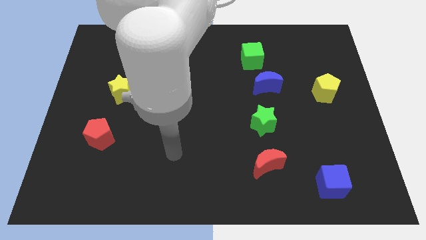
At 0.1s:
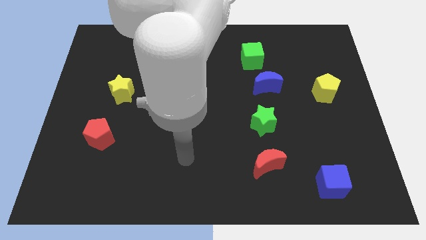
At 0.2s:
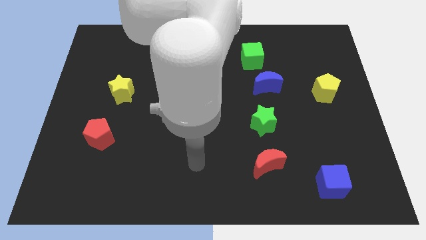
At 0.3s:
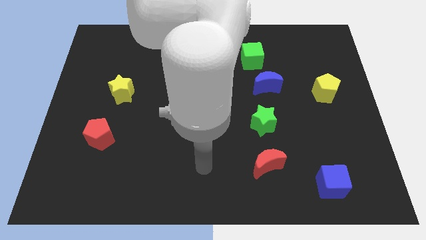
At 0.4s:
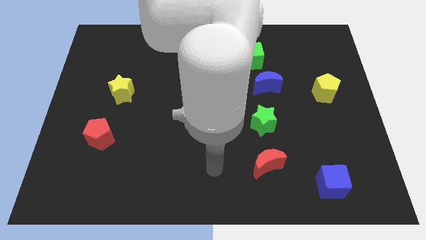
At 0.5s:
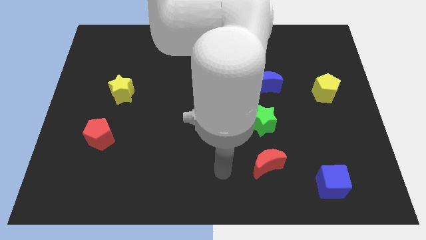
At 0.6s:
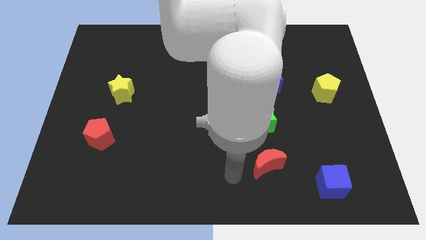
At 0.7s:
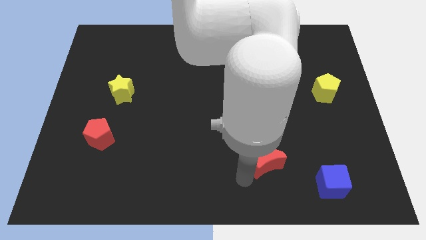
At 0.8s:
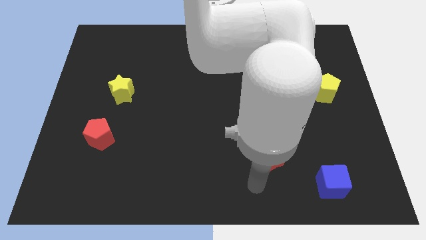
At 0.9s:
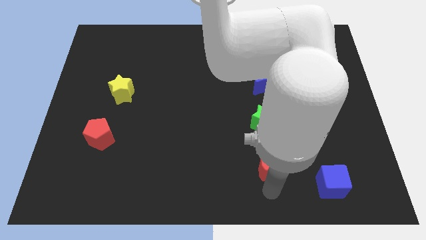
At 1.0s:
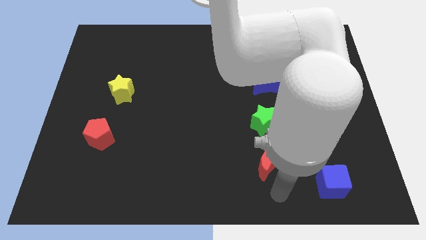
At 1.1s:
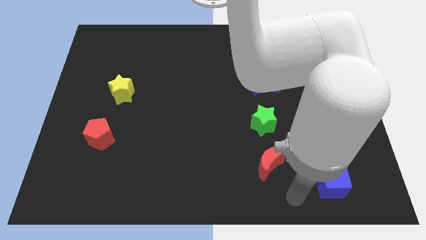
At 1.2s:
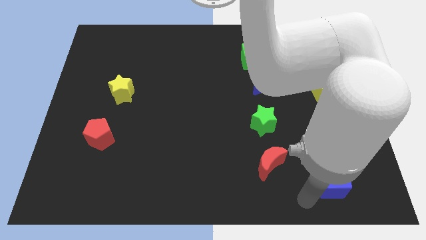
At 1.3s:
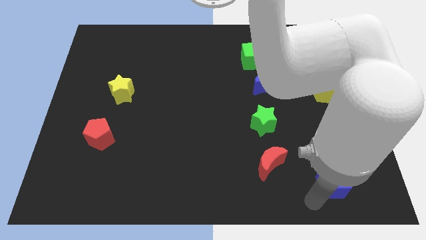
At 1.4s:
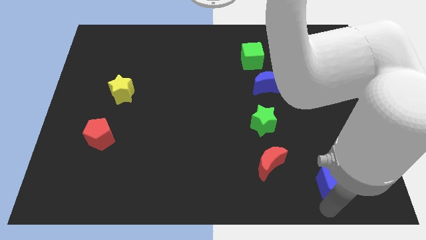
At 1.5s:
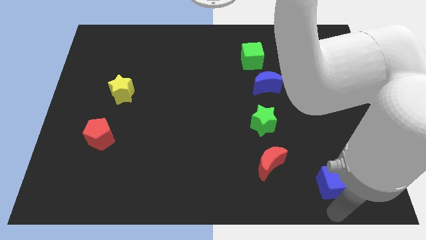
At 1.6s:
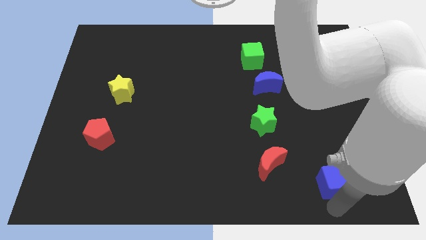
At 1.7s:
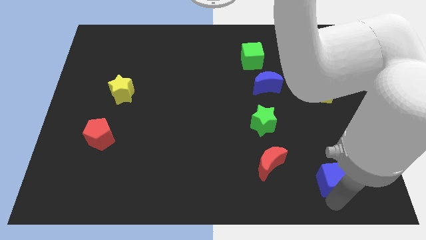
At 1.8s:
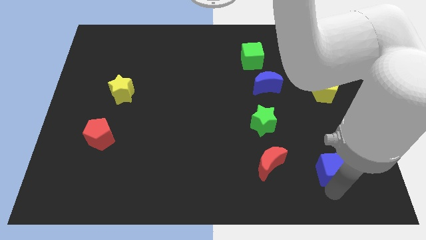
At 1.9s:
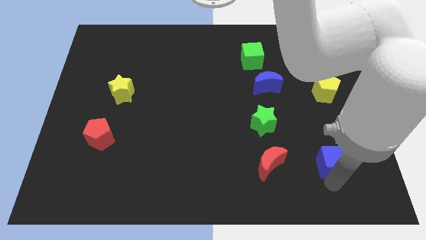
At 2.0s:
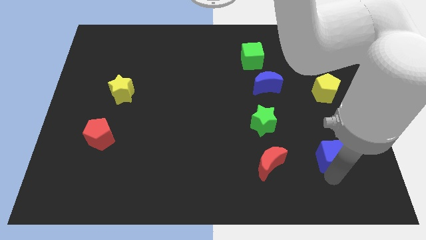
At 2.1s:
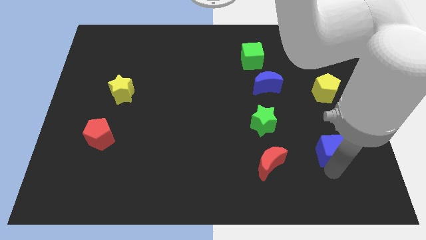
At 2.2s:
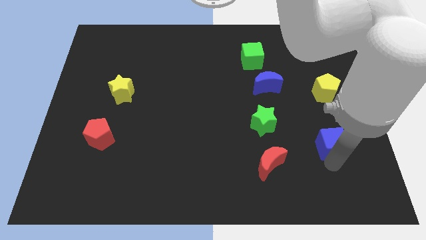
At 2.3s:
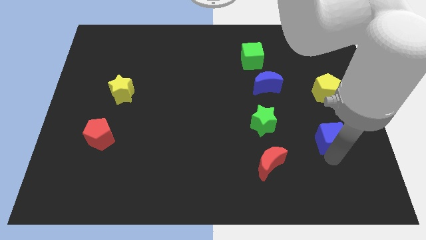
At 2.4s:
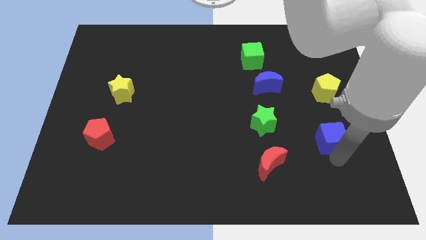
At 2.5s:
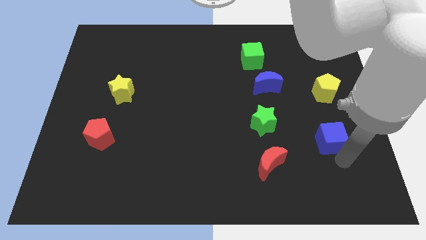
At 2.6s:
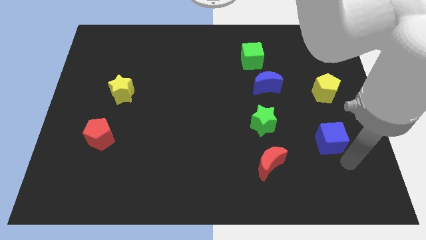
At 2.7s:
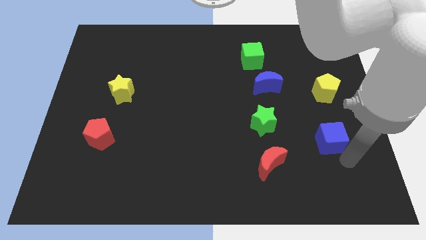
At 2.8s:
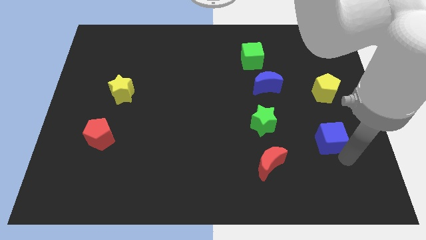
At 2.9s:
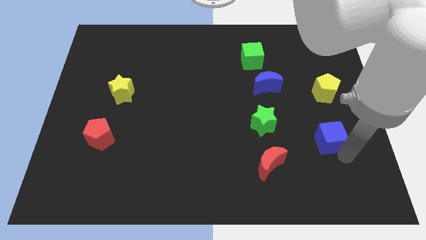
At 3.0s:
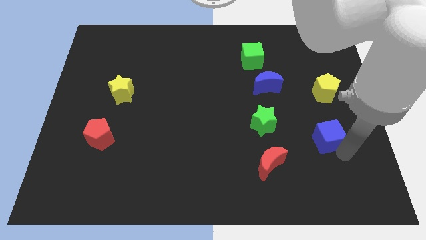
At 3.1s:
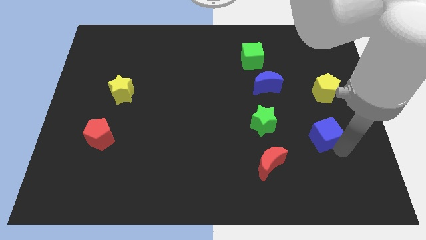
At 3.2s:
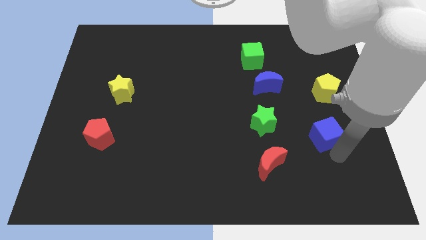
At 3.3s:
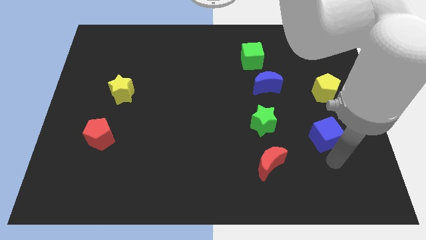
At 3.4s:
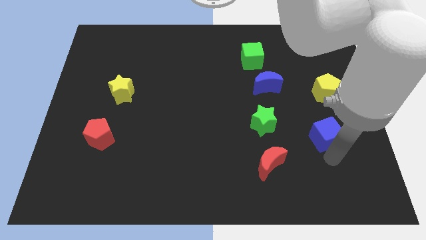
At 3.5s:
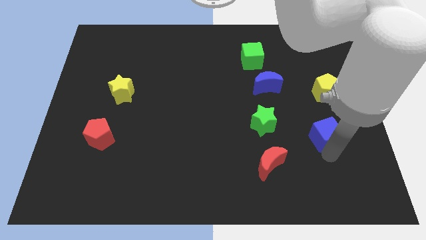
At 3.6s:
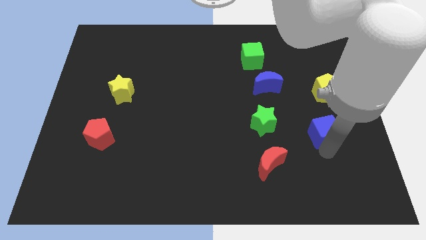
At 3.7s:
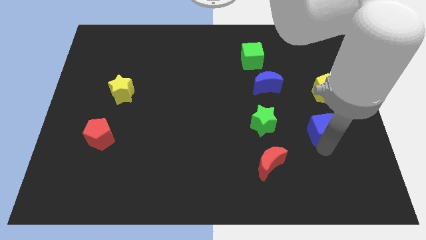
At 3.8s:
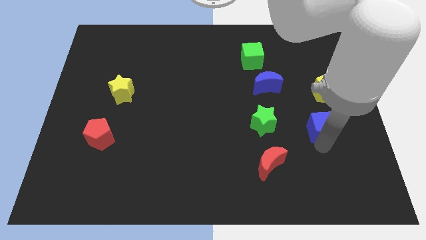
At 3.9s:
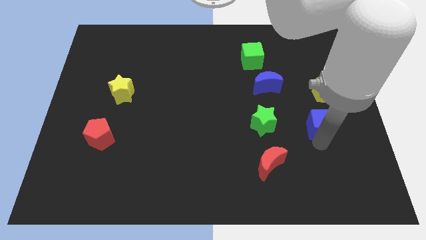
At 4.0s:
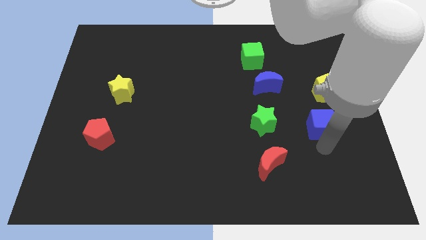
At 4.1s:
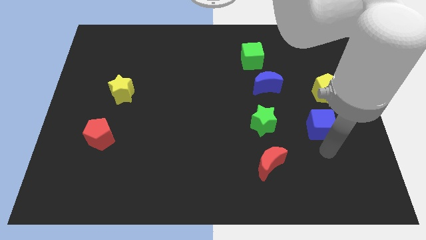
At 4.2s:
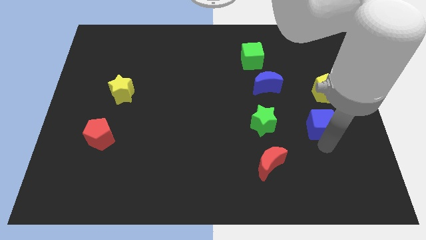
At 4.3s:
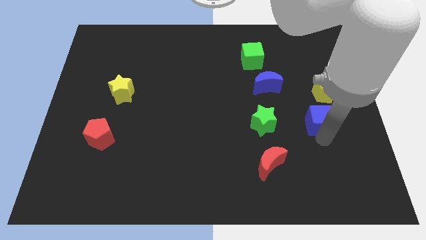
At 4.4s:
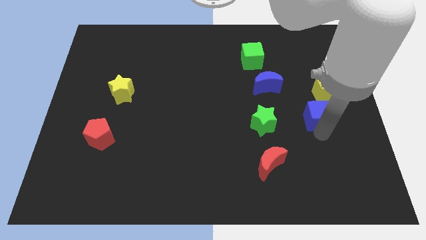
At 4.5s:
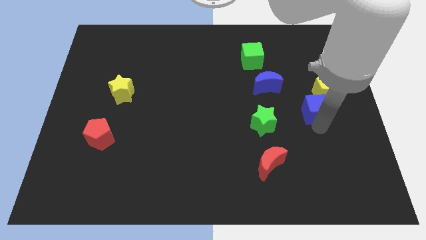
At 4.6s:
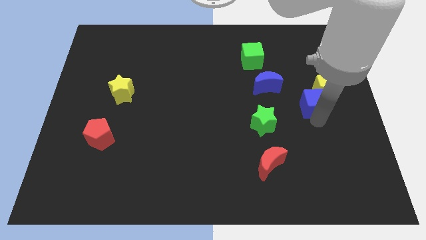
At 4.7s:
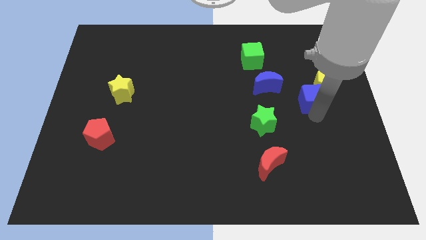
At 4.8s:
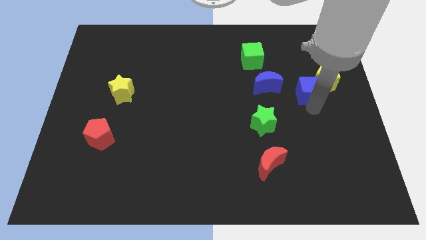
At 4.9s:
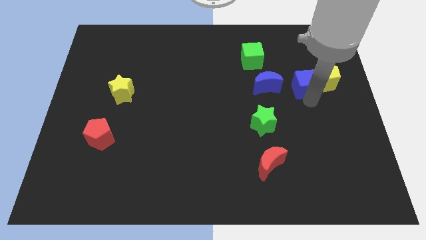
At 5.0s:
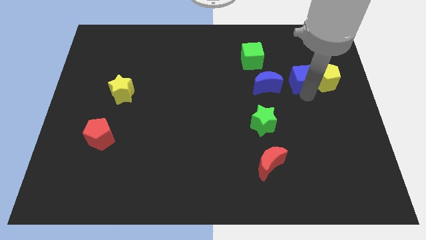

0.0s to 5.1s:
push the blue cube diagonally up and to the left of the yellow pentagon

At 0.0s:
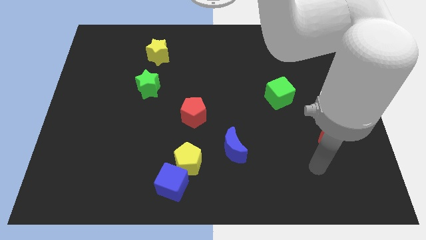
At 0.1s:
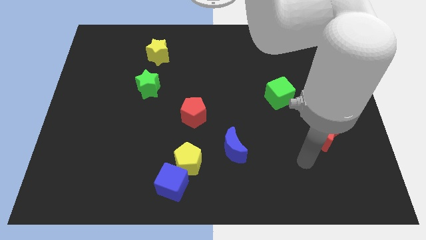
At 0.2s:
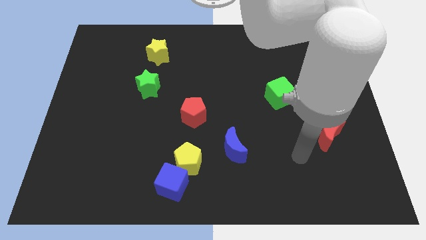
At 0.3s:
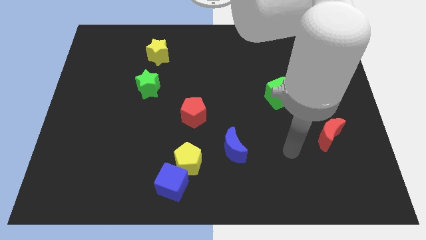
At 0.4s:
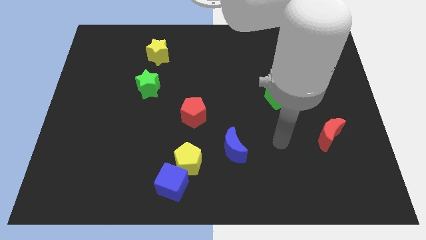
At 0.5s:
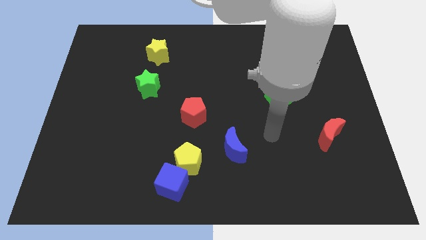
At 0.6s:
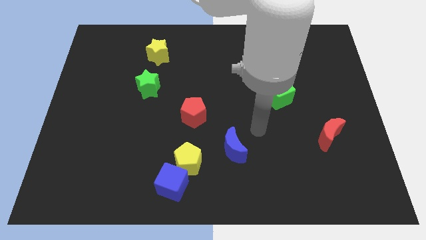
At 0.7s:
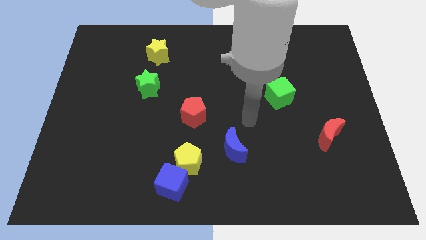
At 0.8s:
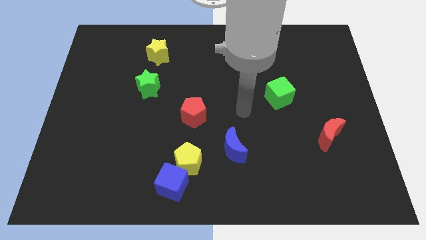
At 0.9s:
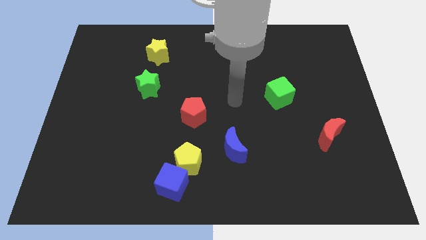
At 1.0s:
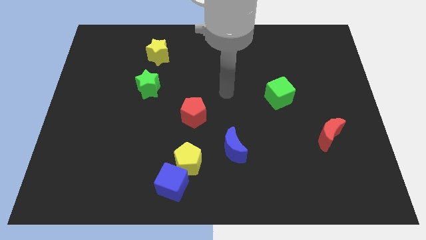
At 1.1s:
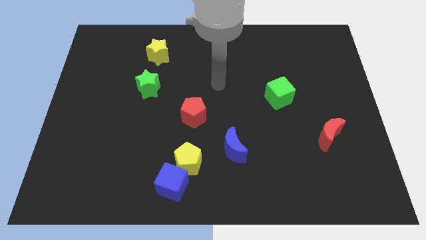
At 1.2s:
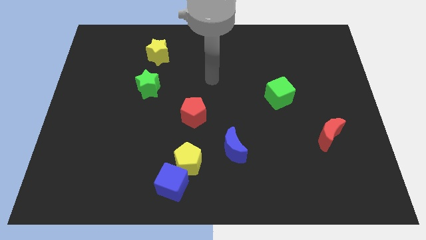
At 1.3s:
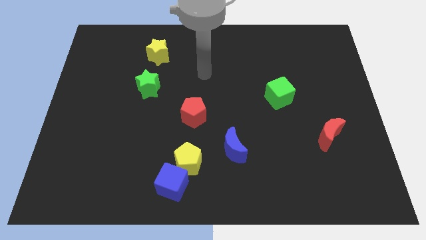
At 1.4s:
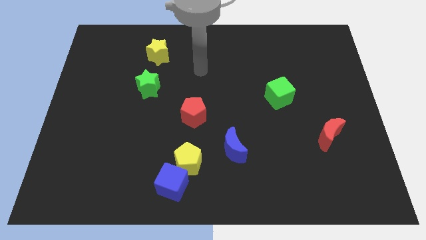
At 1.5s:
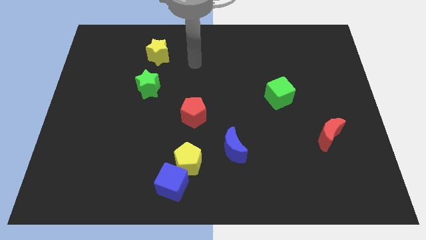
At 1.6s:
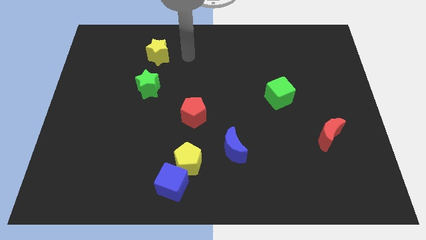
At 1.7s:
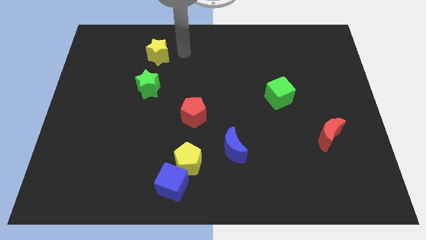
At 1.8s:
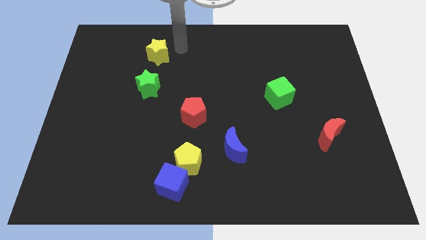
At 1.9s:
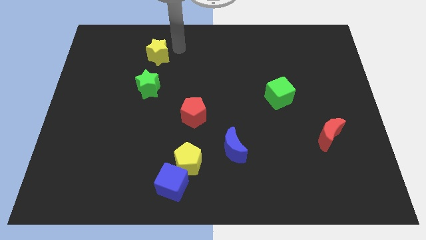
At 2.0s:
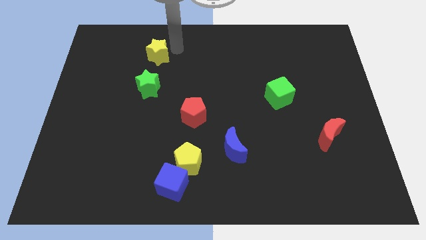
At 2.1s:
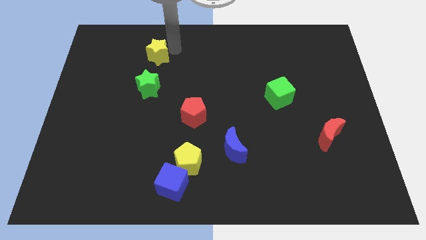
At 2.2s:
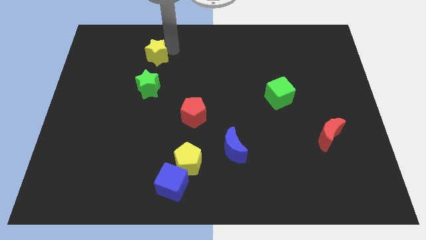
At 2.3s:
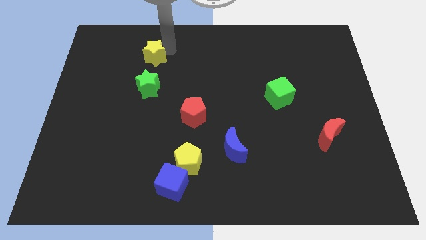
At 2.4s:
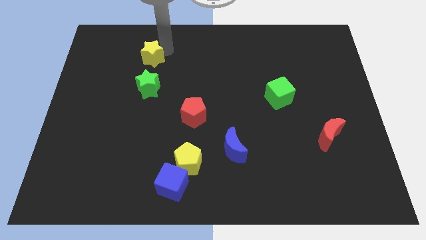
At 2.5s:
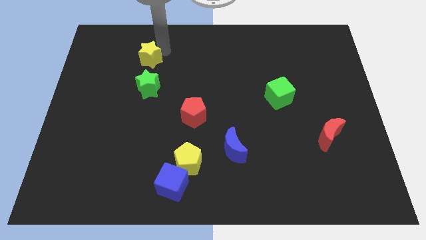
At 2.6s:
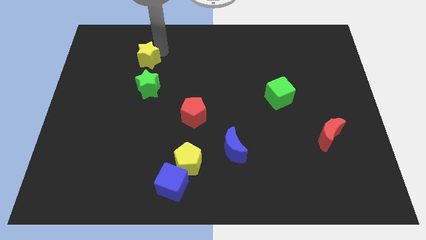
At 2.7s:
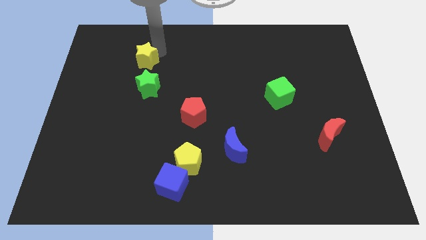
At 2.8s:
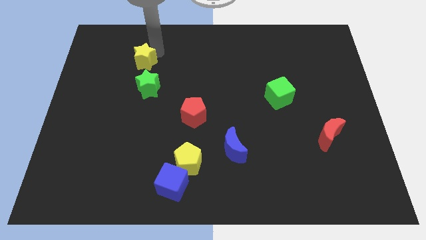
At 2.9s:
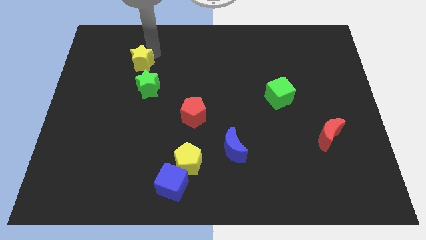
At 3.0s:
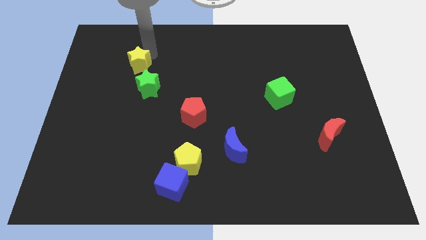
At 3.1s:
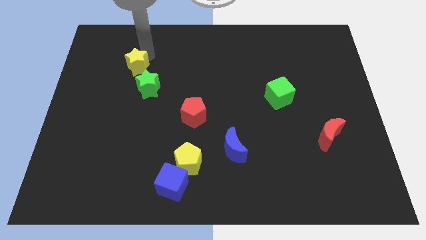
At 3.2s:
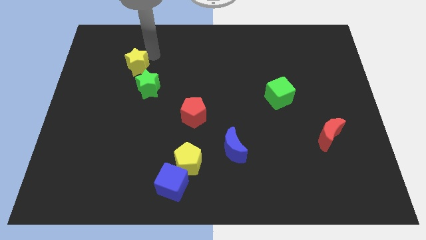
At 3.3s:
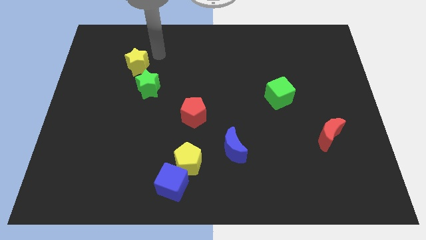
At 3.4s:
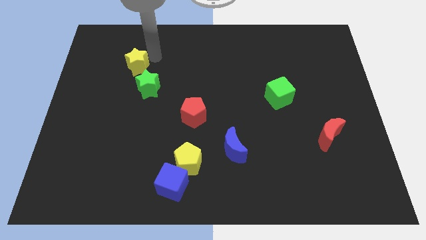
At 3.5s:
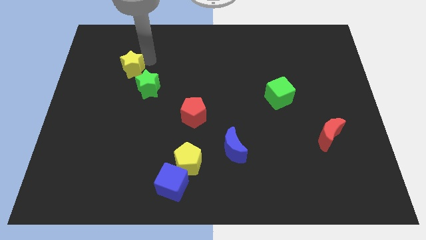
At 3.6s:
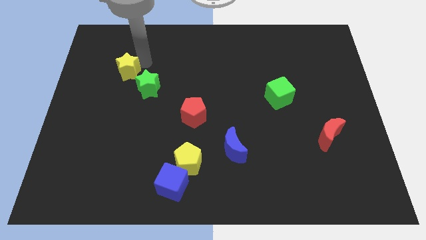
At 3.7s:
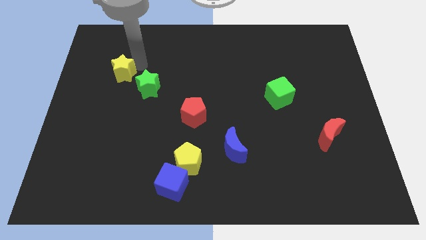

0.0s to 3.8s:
move the yellow star to the left side of the green star
